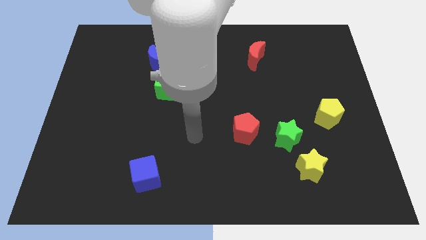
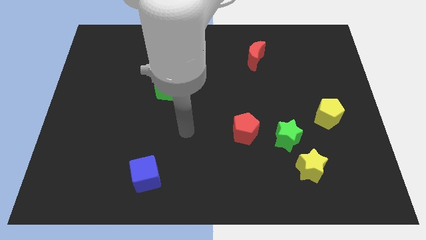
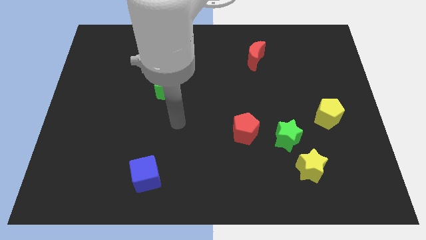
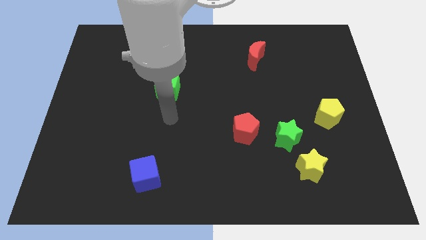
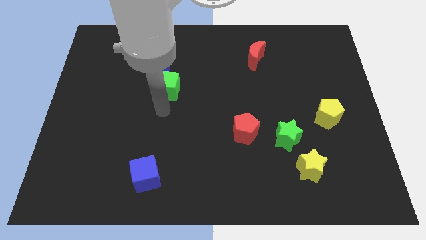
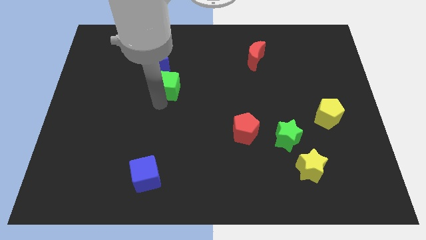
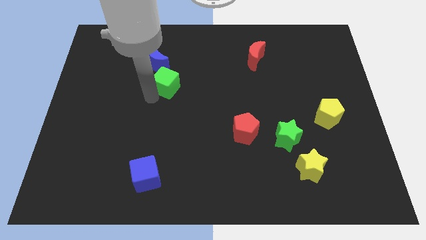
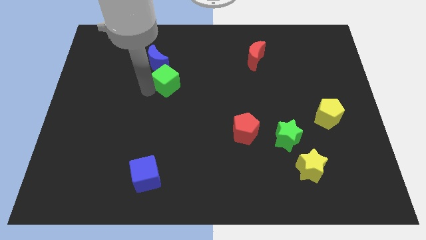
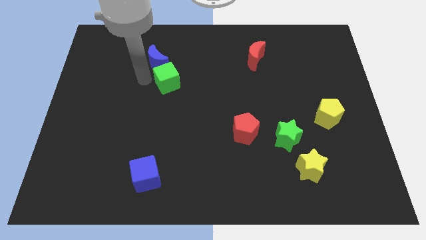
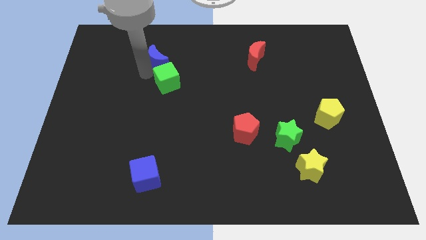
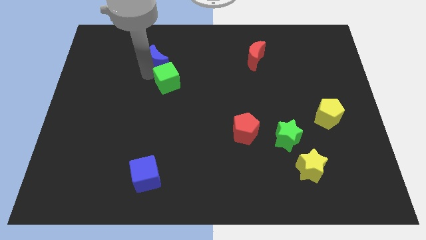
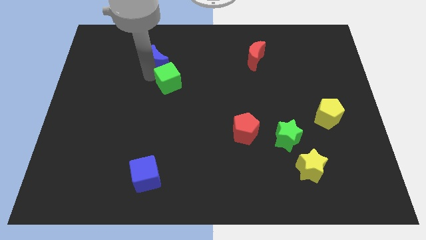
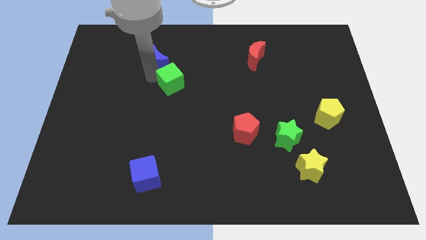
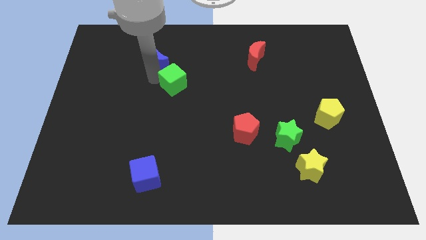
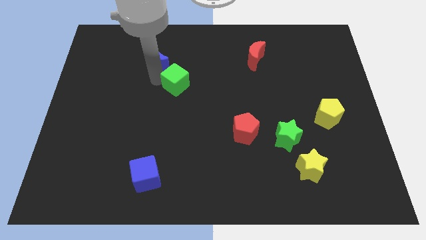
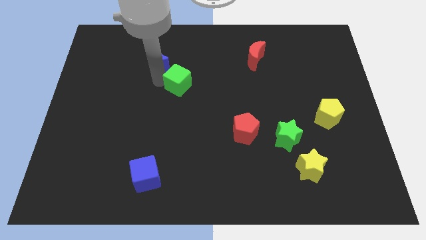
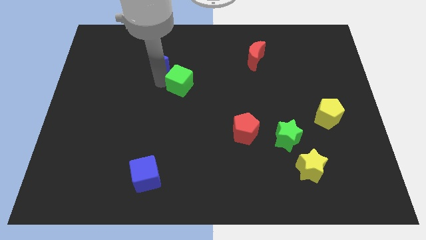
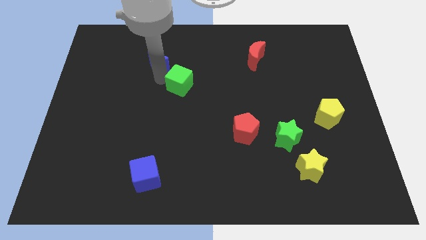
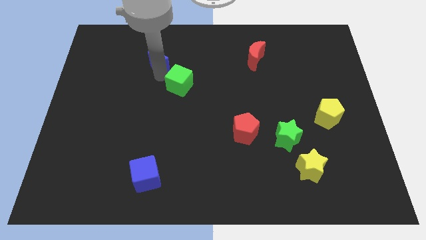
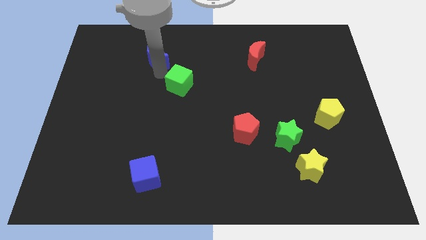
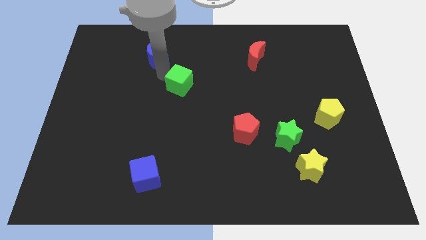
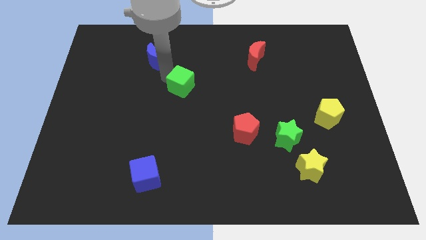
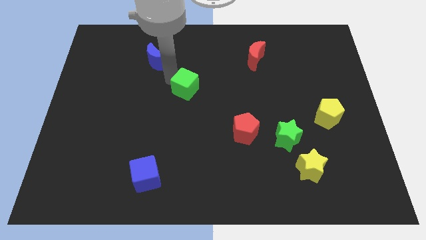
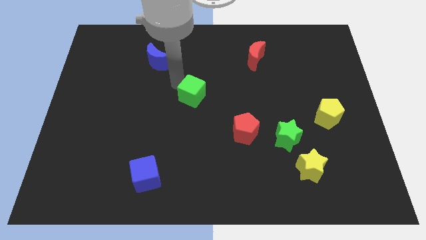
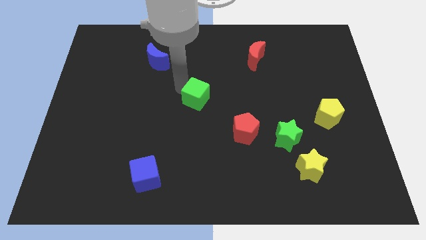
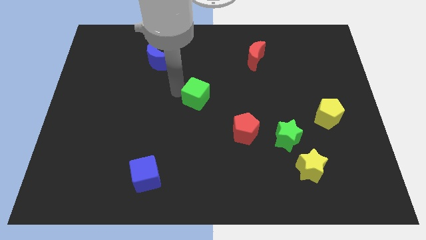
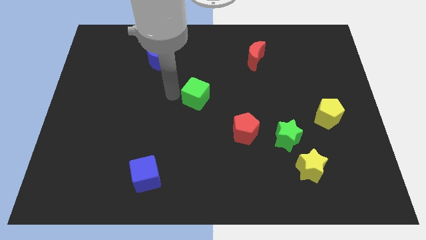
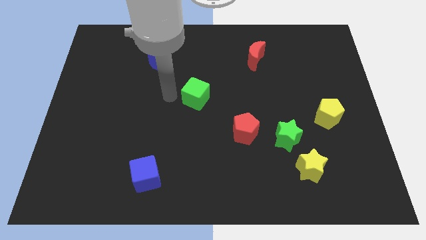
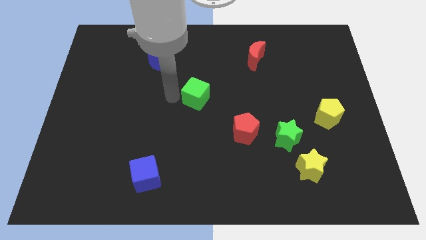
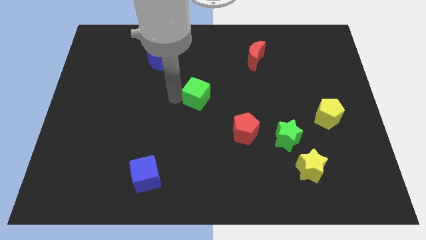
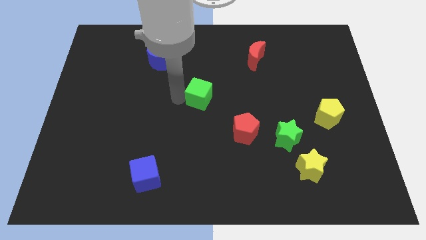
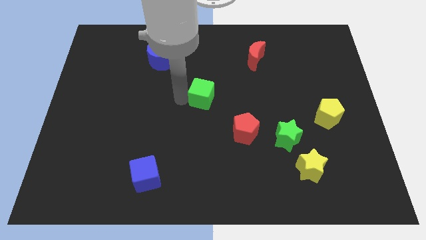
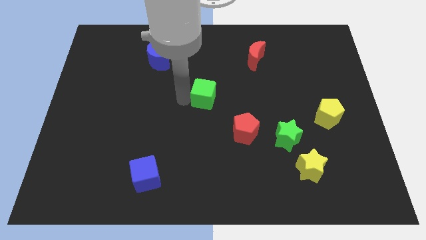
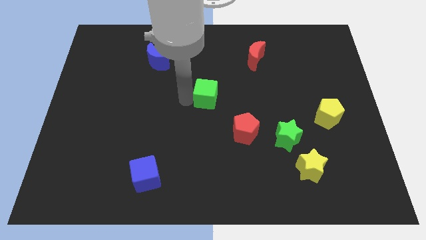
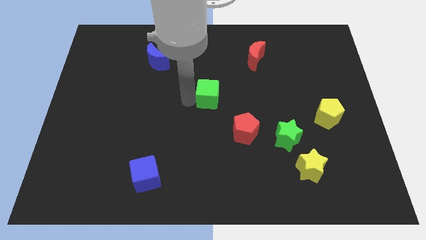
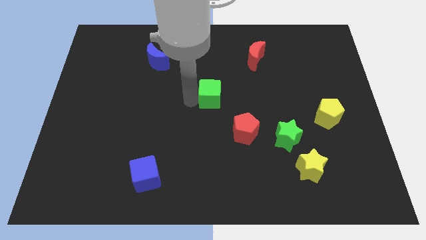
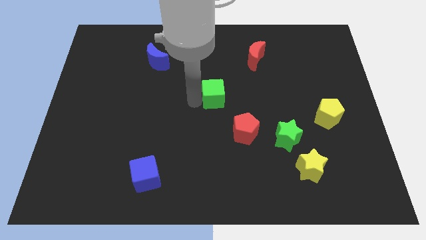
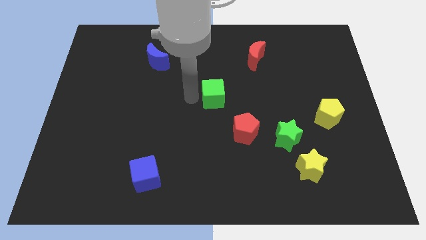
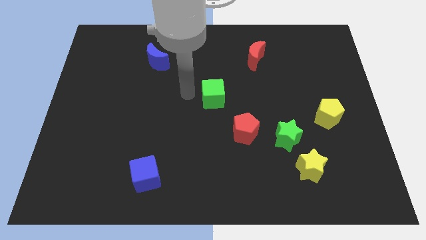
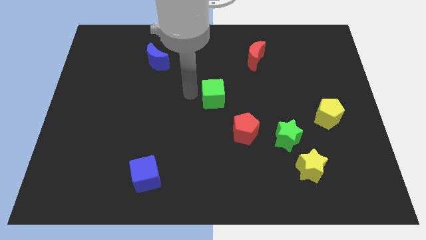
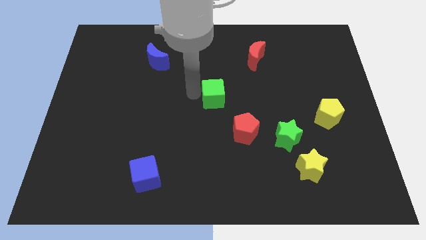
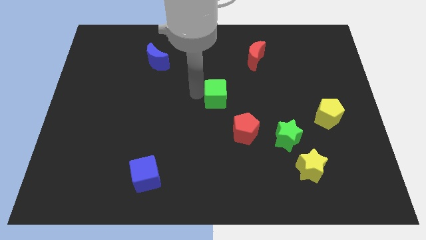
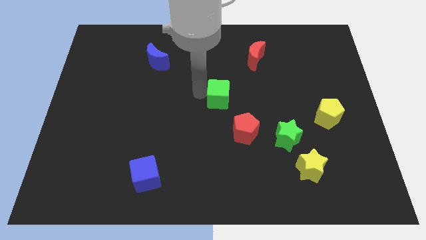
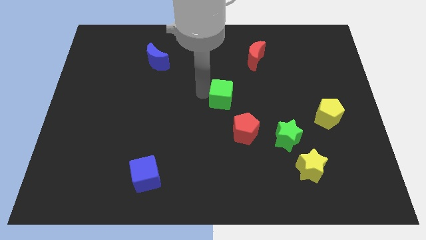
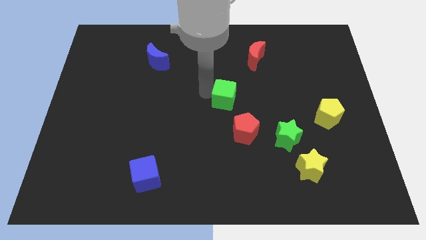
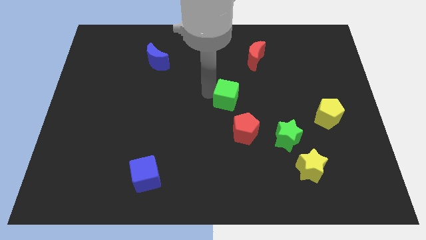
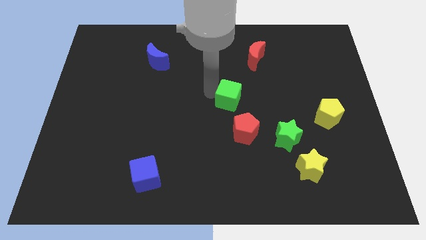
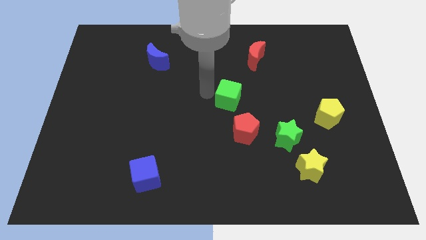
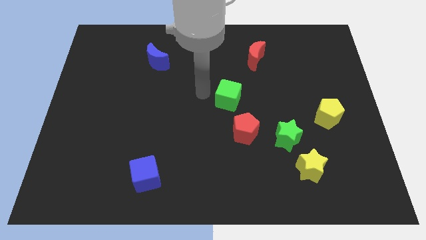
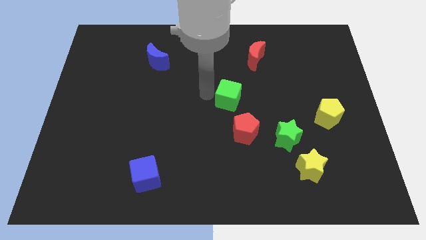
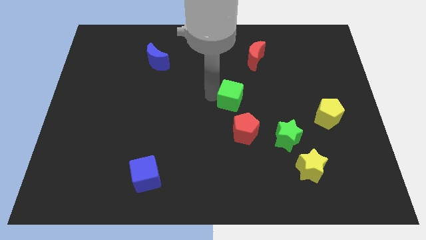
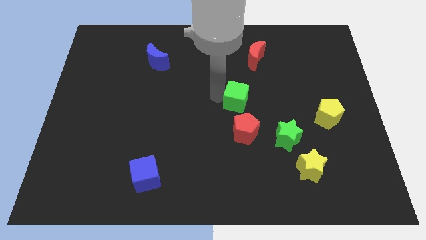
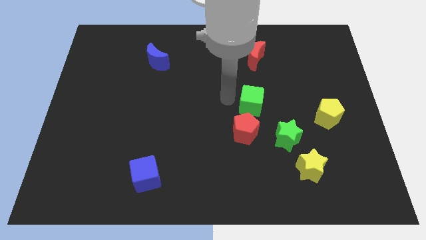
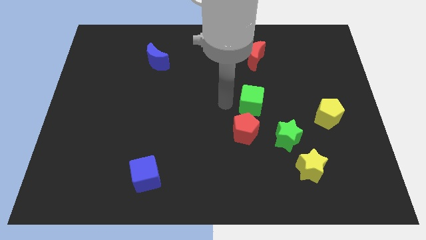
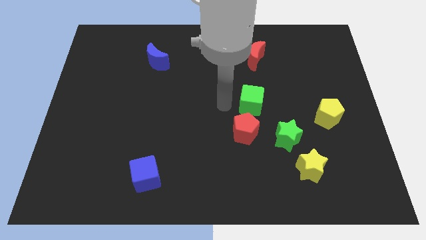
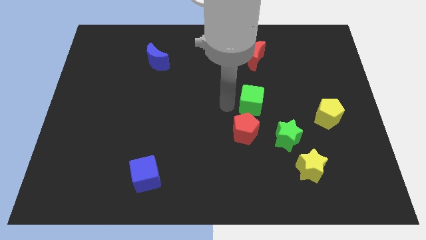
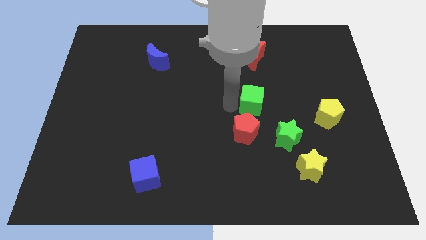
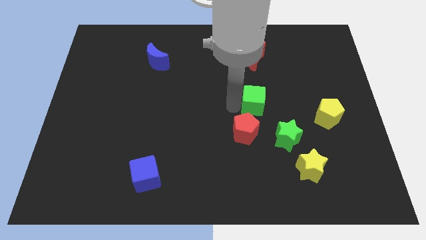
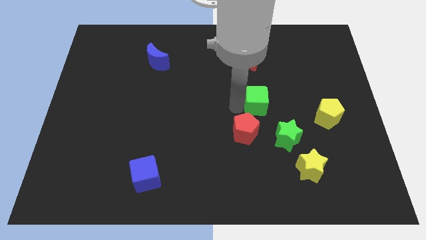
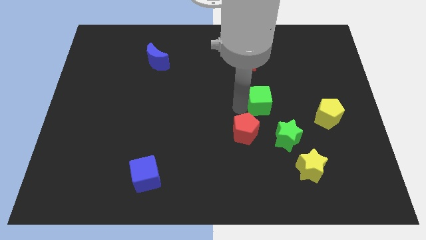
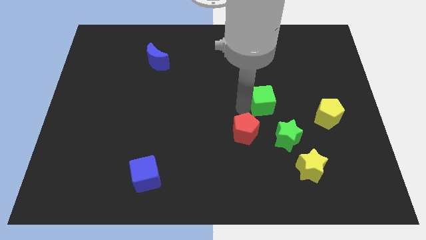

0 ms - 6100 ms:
move the green cube above the green star

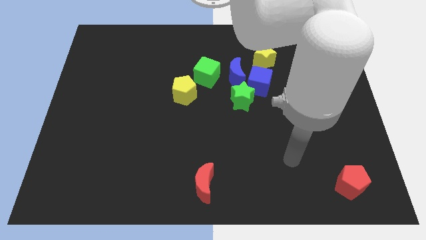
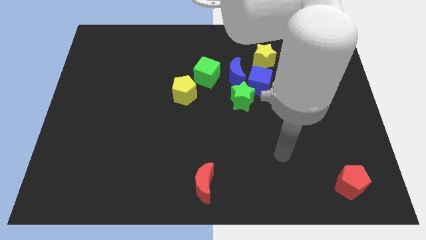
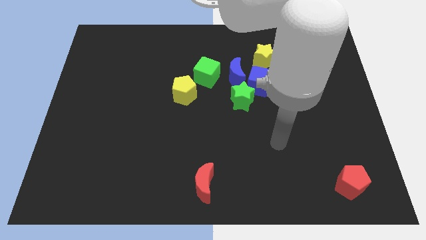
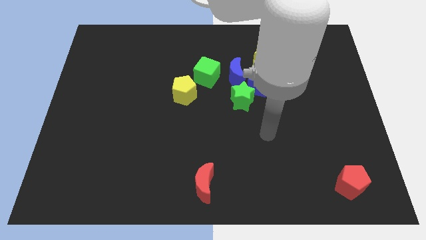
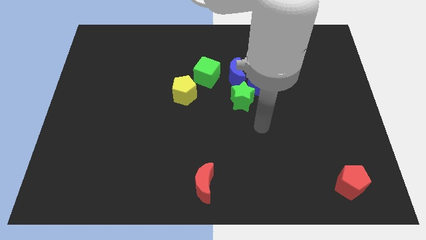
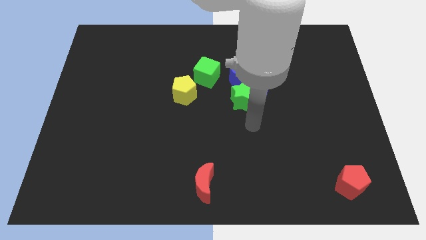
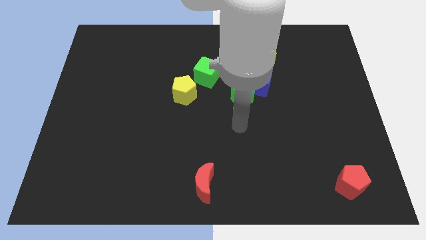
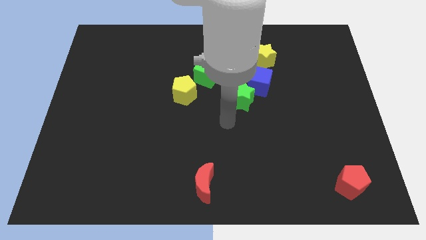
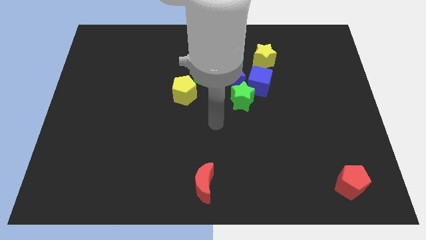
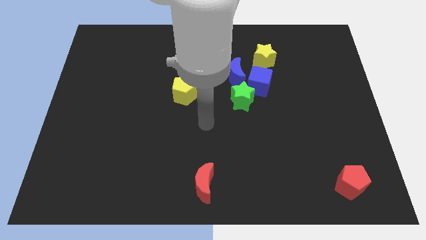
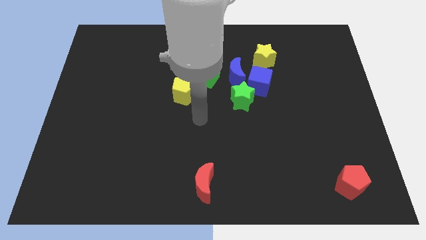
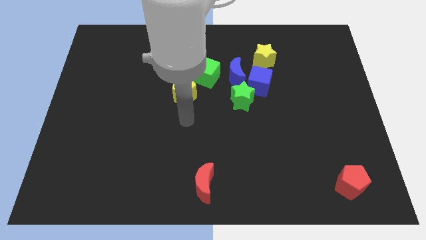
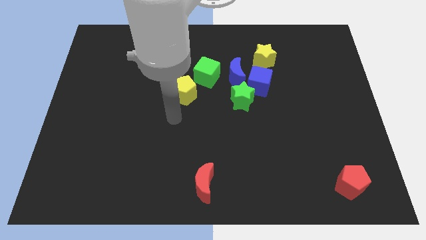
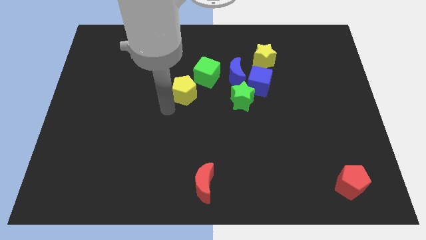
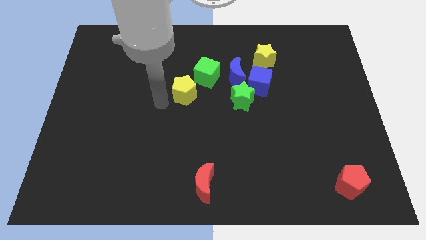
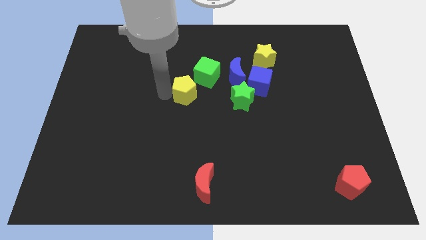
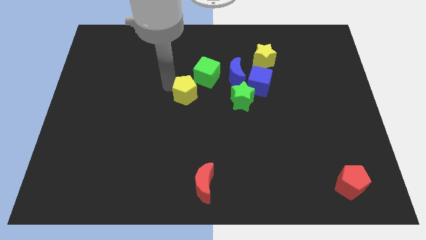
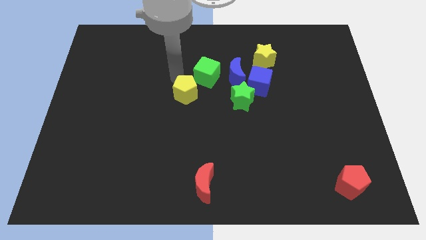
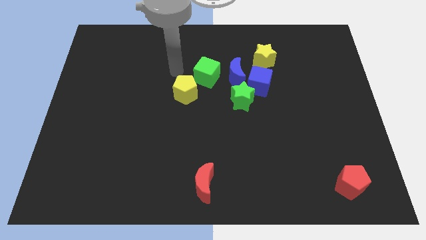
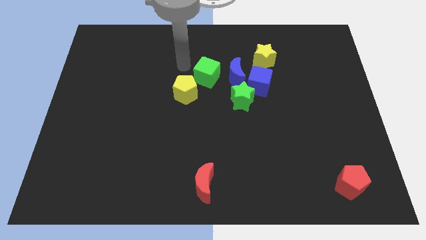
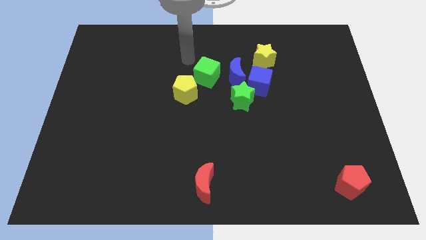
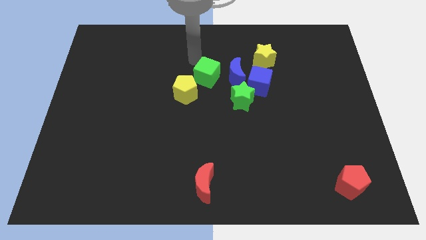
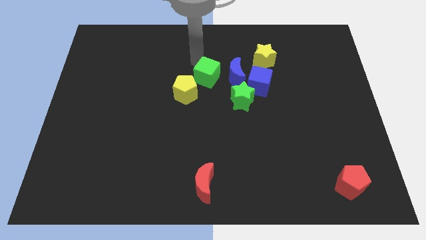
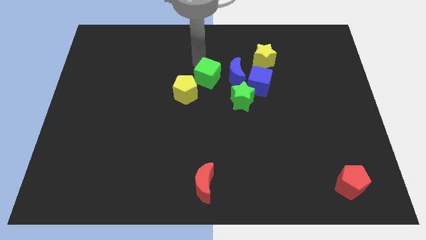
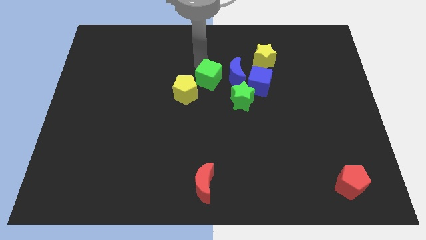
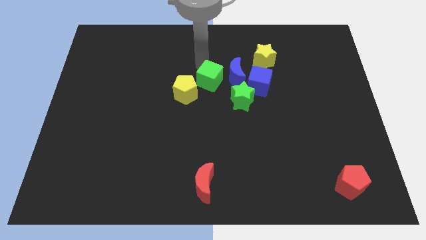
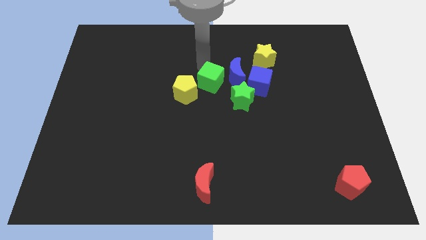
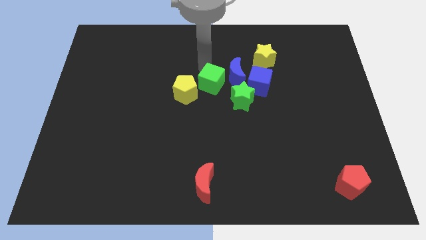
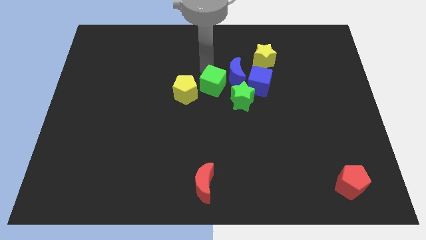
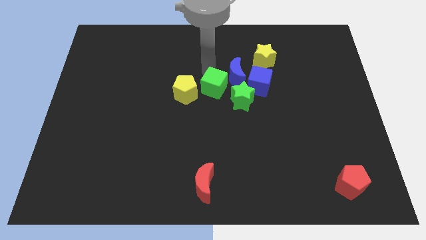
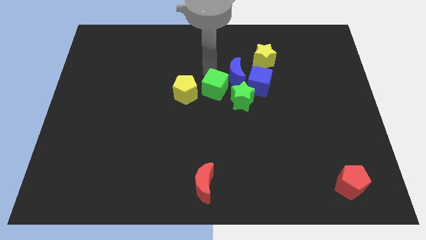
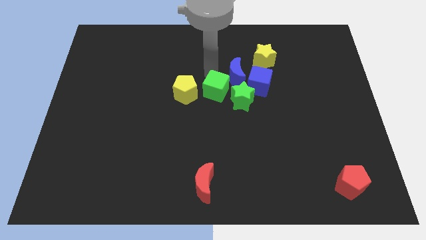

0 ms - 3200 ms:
slide the green cube to the bottom of the blue moon
